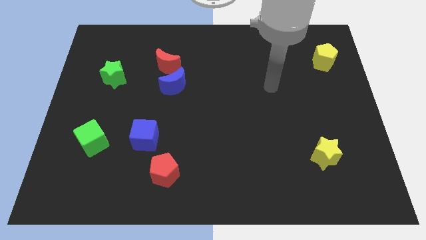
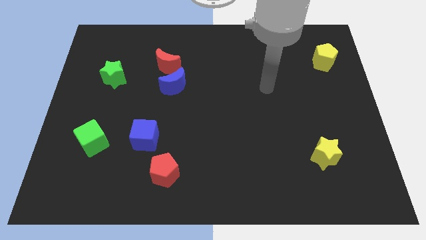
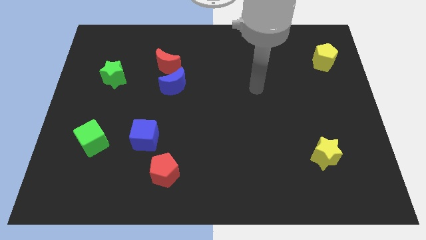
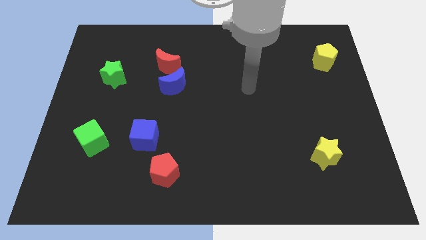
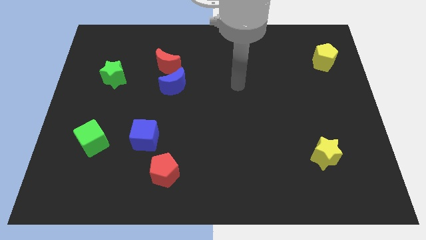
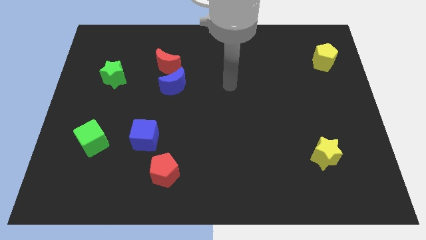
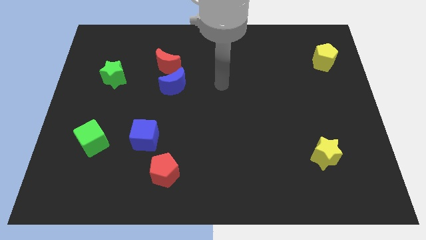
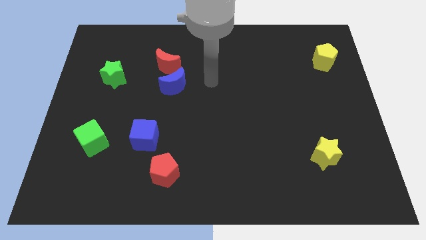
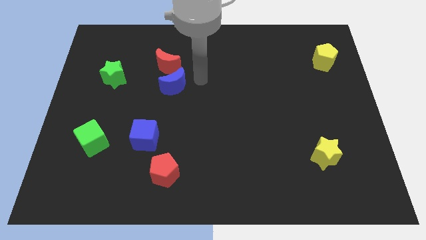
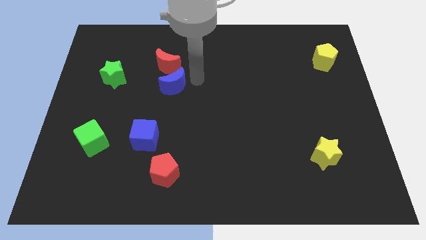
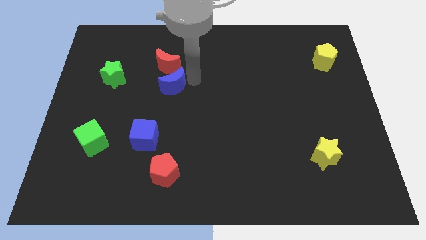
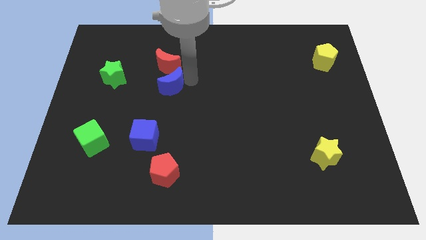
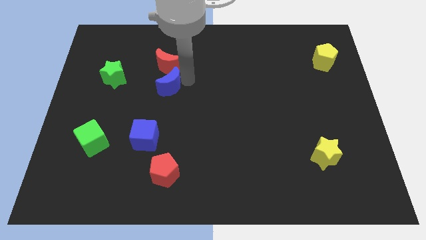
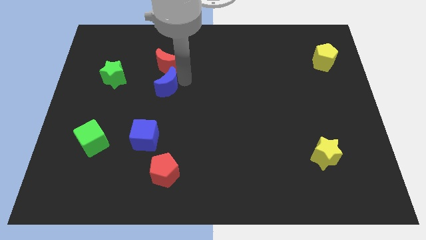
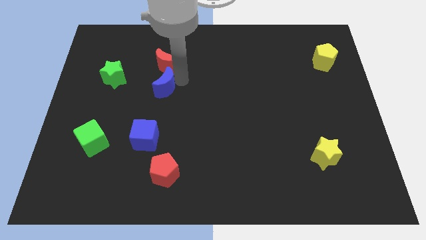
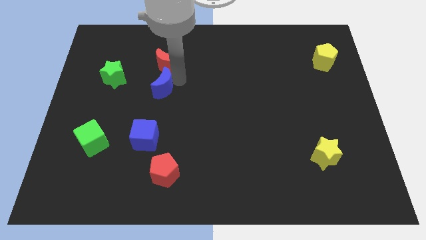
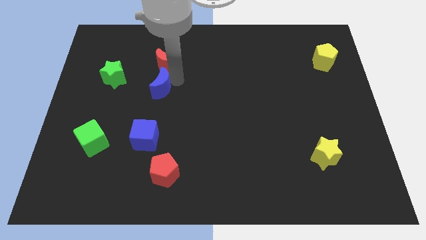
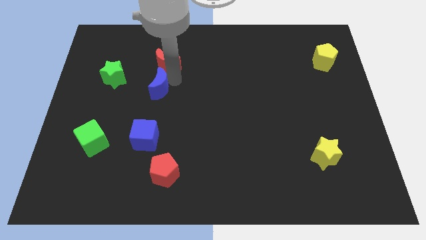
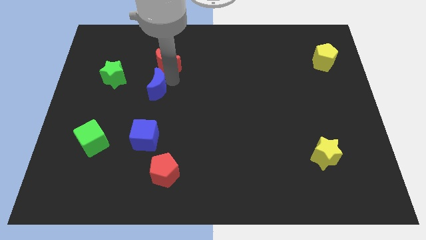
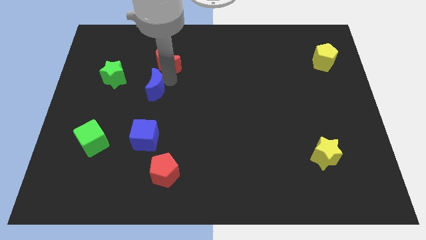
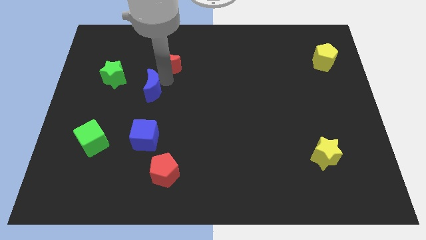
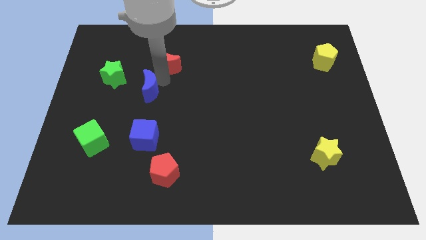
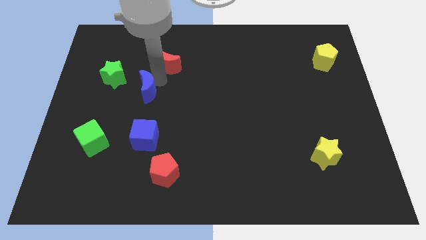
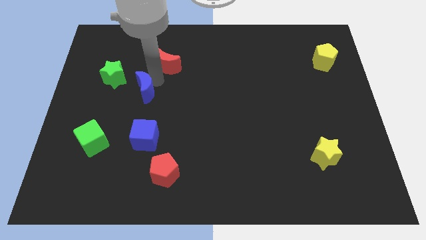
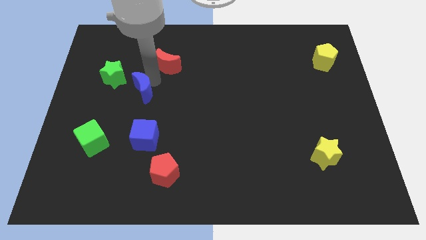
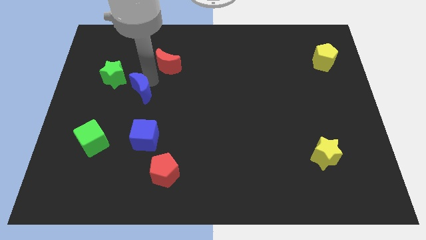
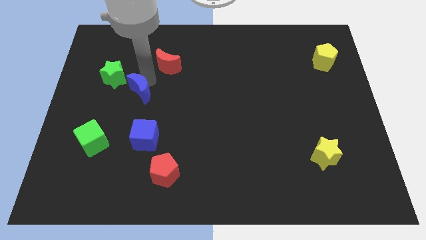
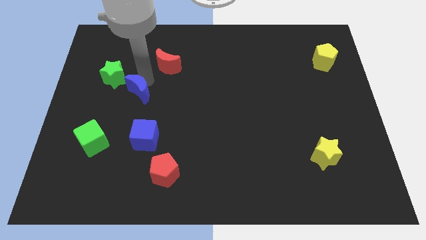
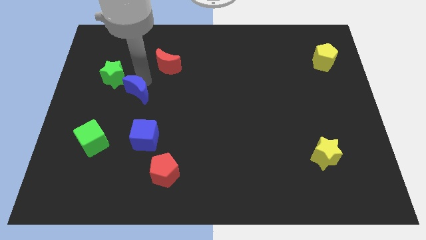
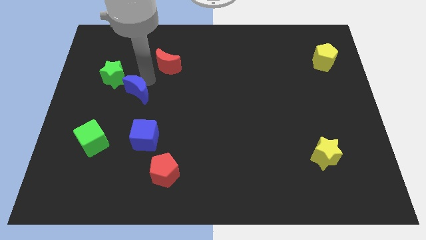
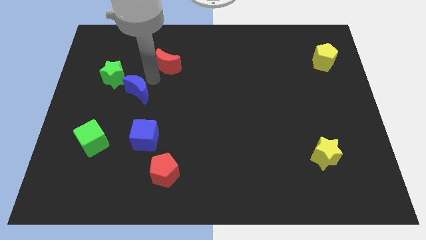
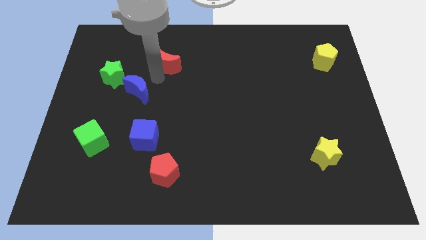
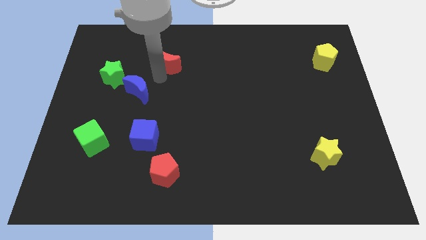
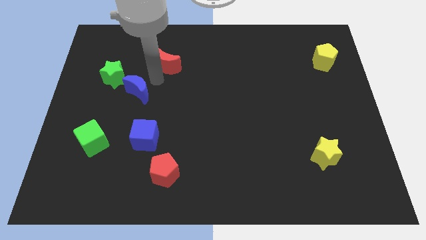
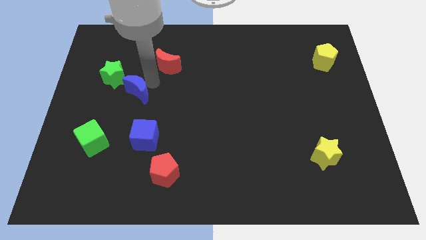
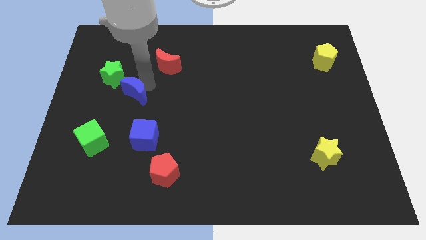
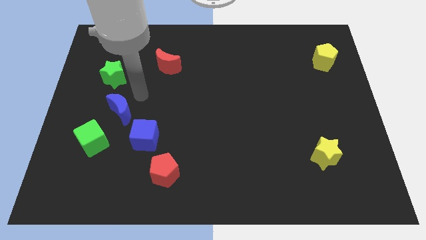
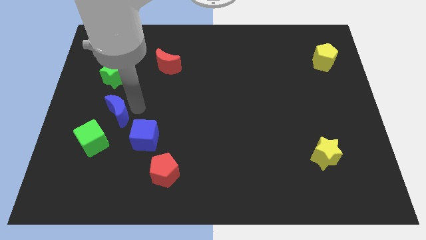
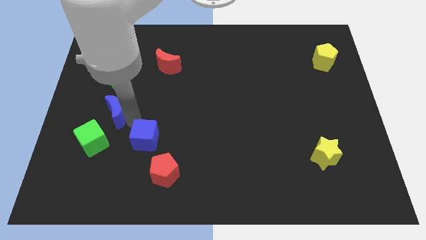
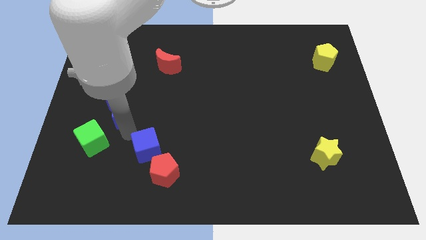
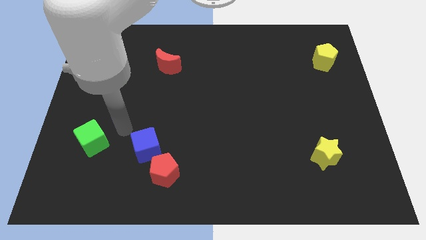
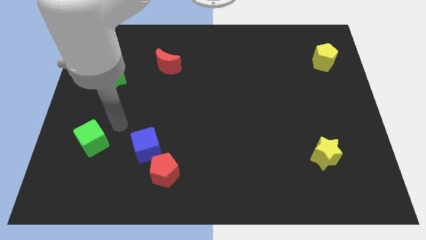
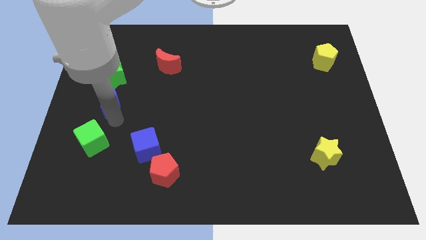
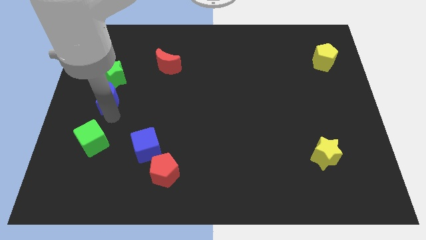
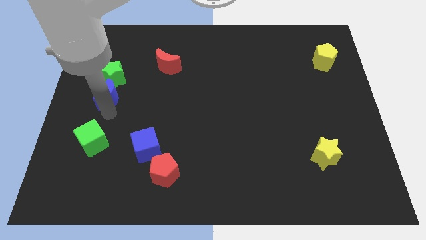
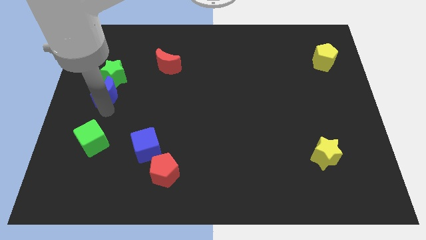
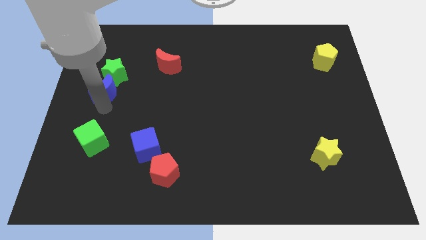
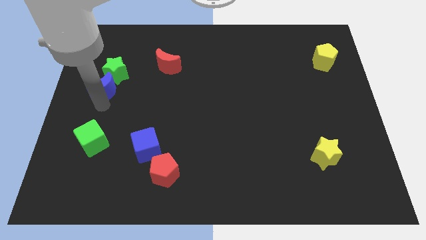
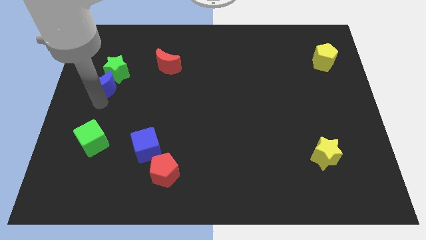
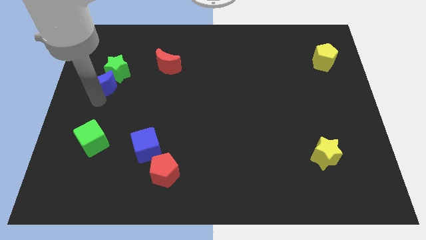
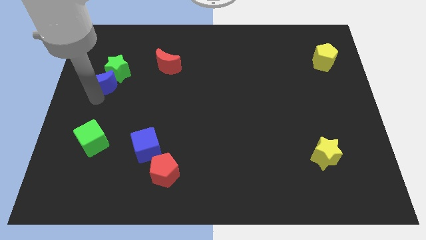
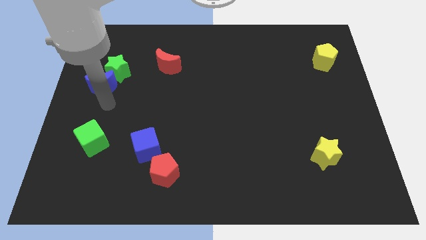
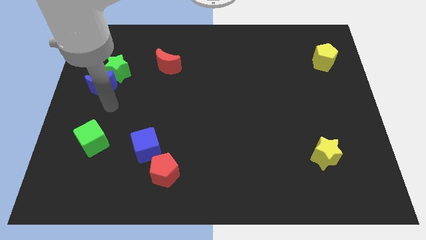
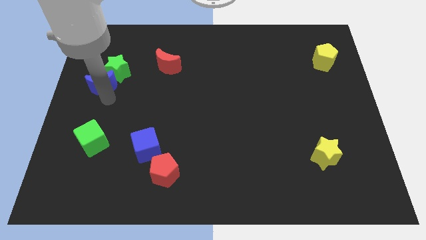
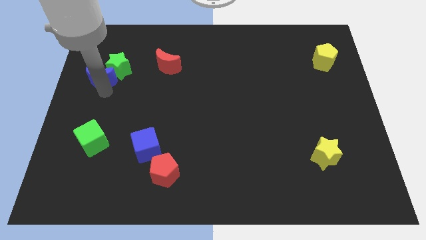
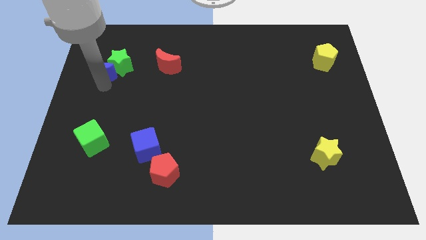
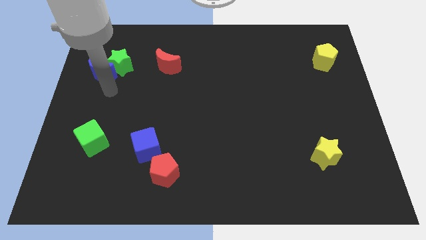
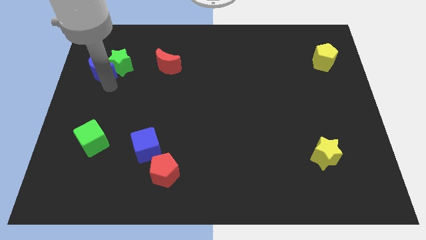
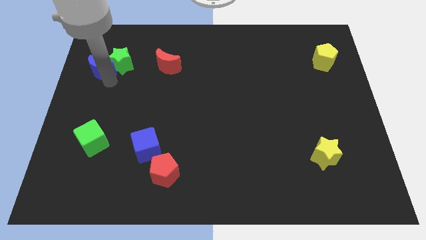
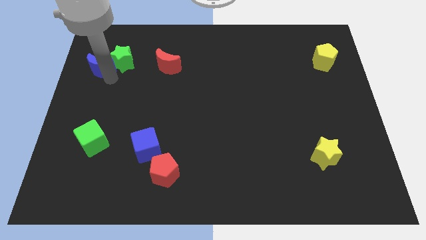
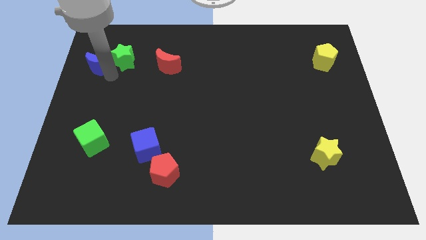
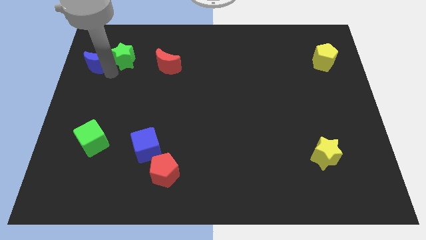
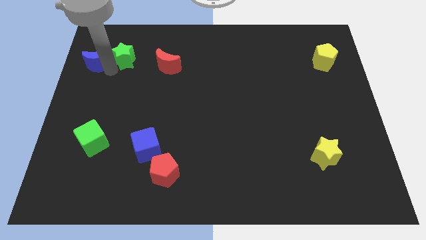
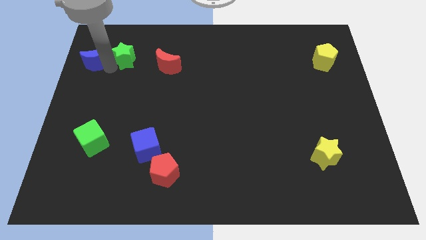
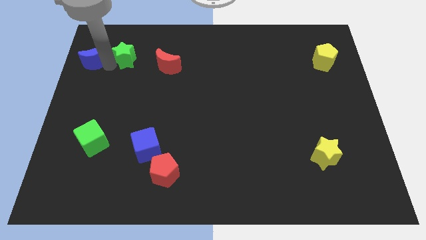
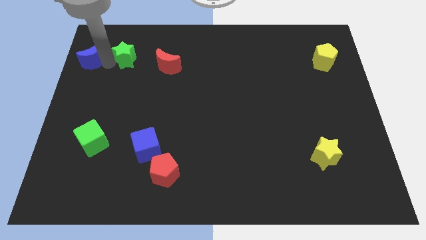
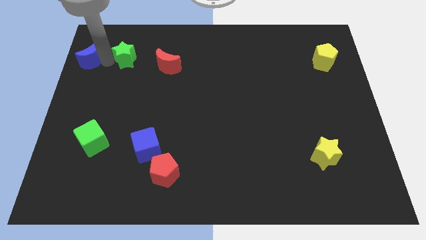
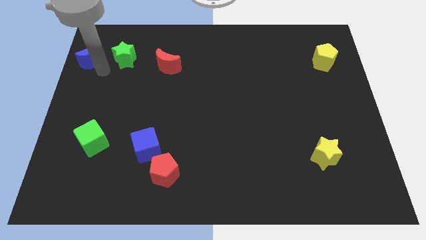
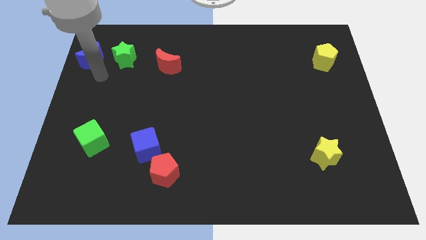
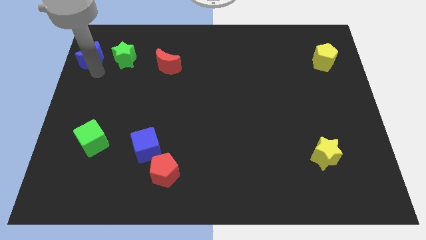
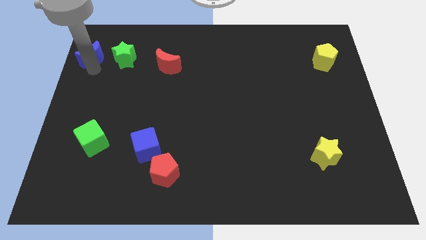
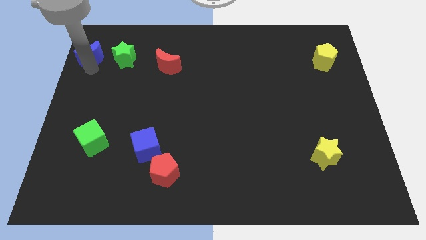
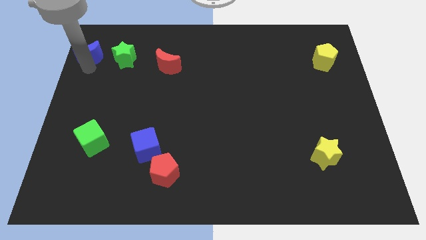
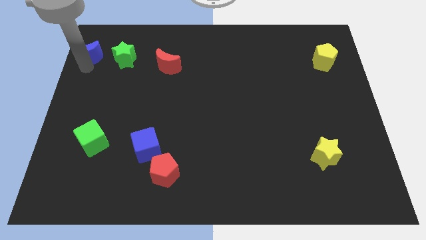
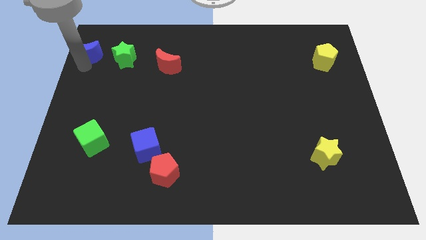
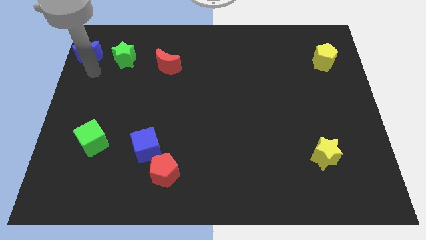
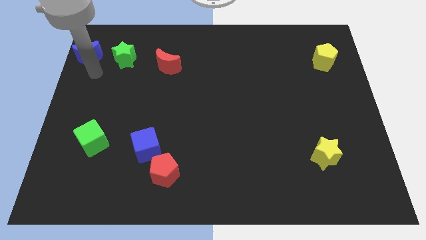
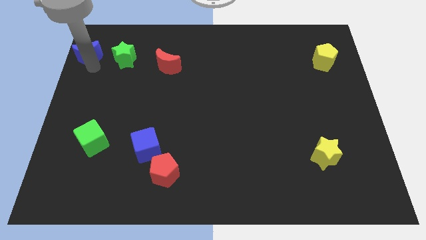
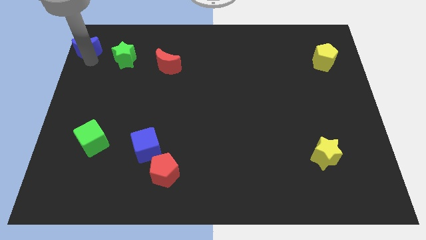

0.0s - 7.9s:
slide the blue moon to the upper left corner
